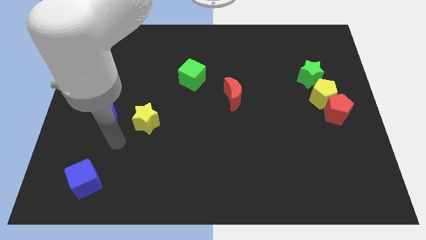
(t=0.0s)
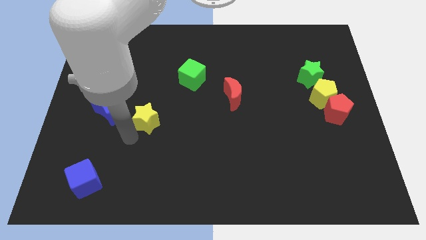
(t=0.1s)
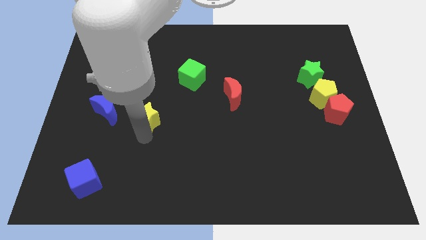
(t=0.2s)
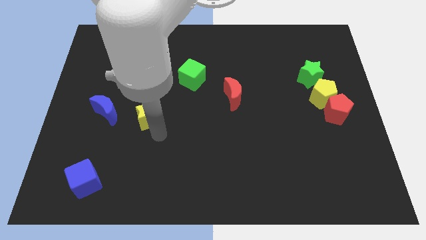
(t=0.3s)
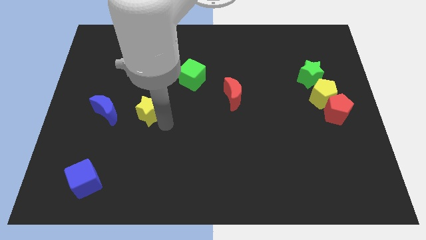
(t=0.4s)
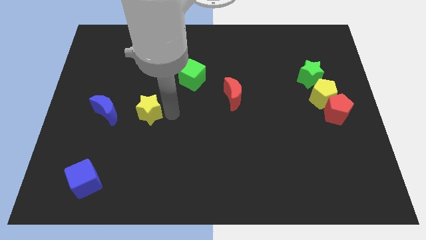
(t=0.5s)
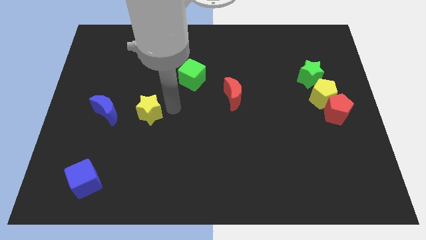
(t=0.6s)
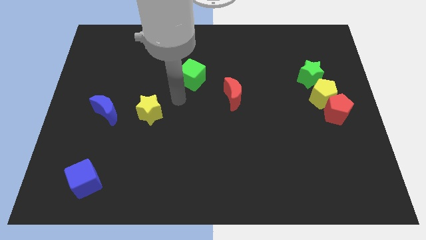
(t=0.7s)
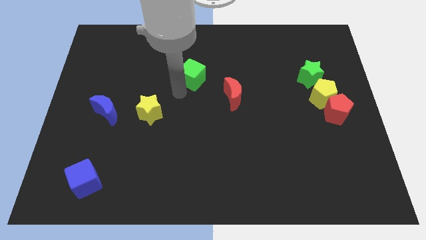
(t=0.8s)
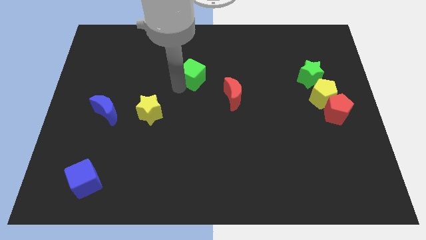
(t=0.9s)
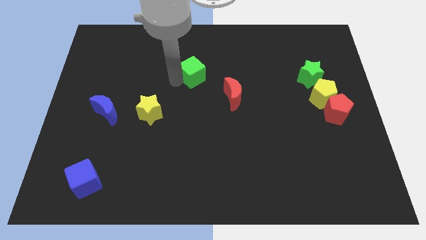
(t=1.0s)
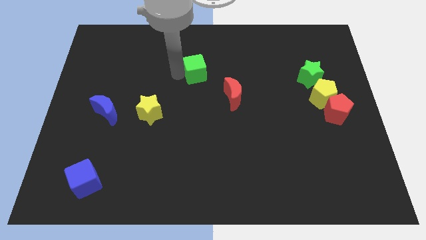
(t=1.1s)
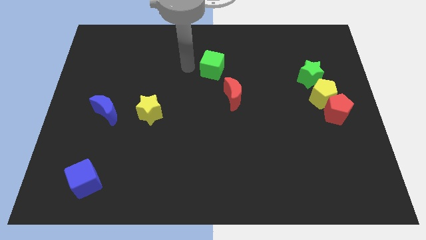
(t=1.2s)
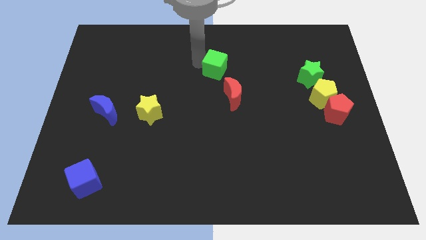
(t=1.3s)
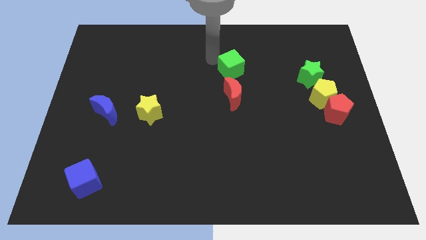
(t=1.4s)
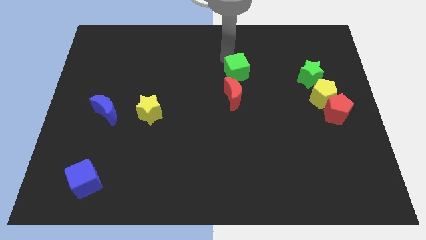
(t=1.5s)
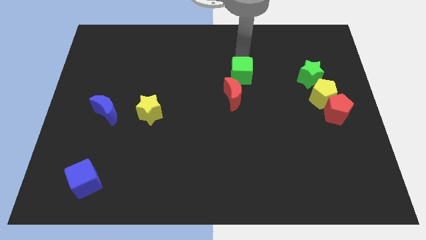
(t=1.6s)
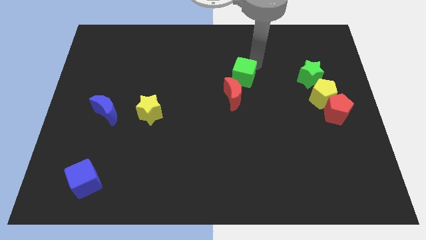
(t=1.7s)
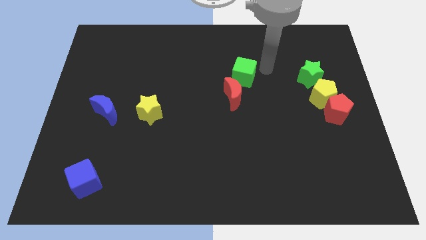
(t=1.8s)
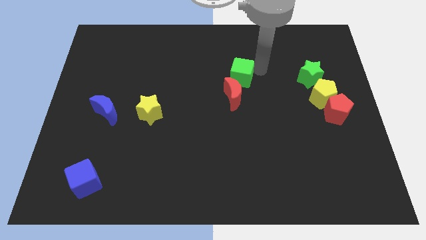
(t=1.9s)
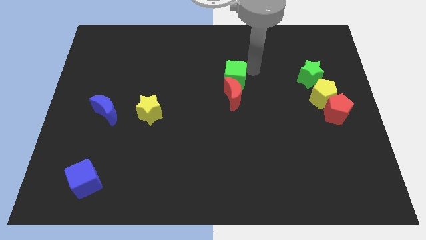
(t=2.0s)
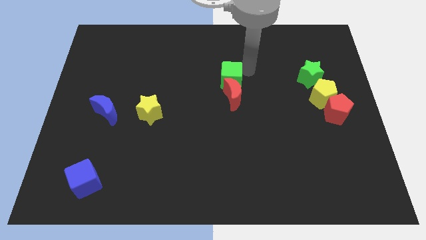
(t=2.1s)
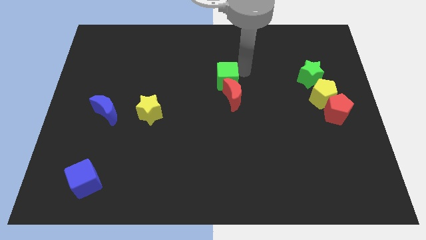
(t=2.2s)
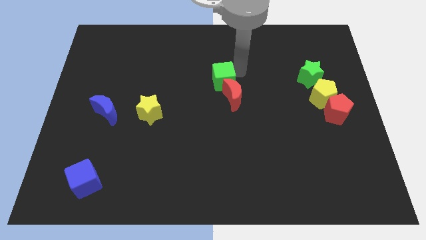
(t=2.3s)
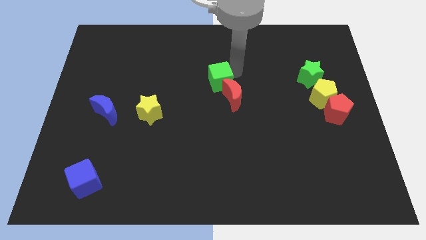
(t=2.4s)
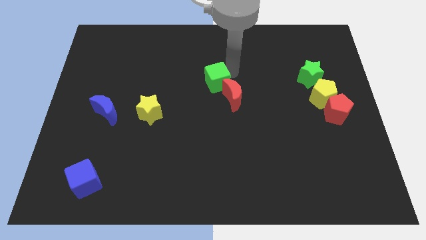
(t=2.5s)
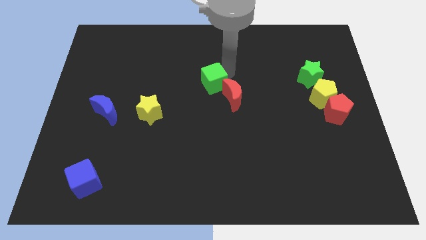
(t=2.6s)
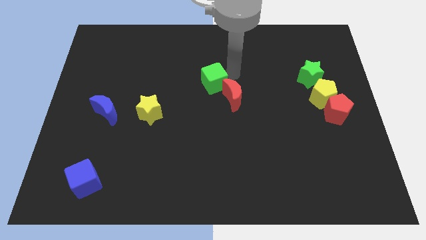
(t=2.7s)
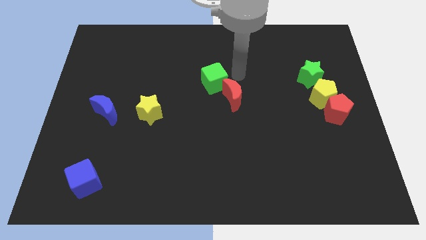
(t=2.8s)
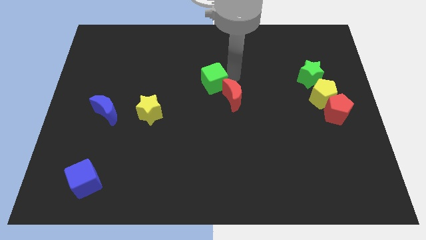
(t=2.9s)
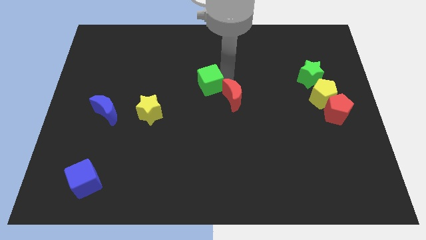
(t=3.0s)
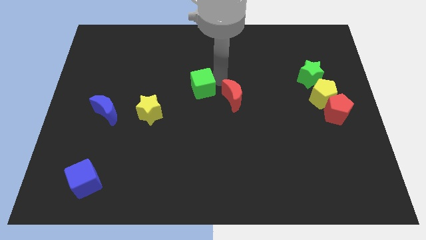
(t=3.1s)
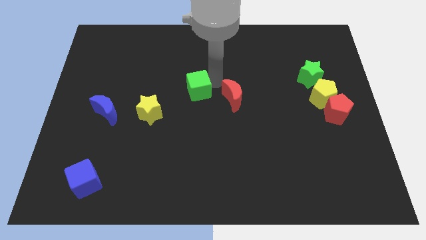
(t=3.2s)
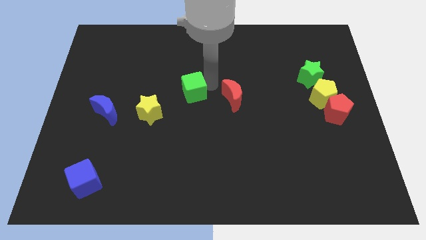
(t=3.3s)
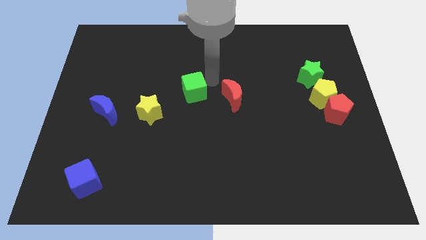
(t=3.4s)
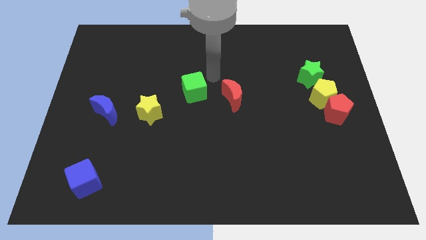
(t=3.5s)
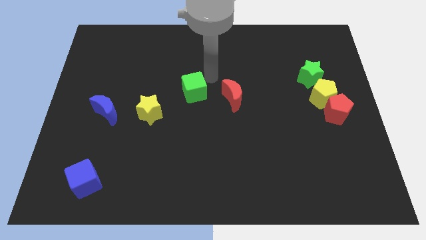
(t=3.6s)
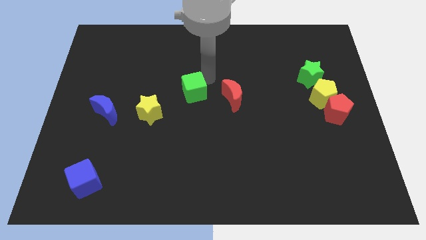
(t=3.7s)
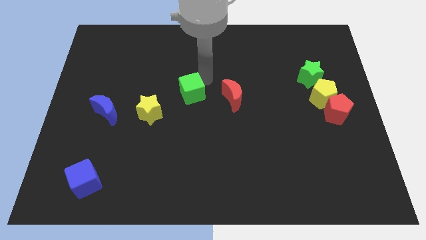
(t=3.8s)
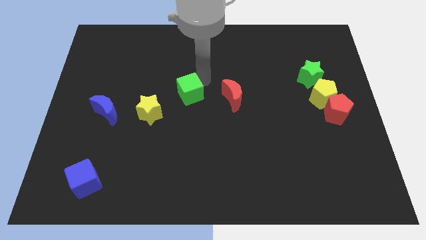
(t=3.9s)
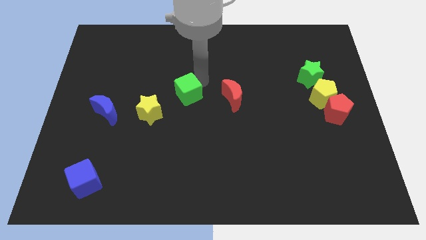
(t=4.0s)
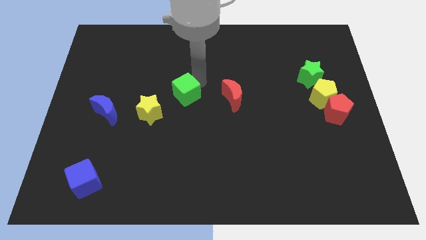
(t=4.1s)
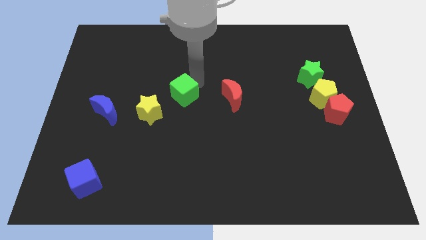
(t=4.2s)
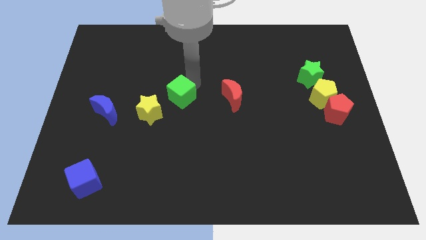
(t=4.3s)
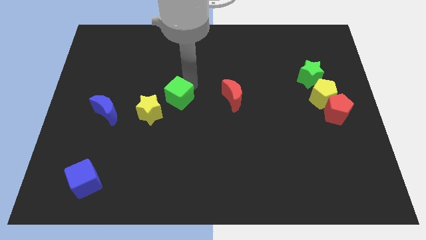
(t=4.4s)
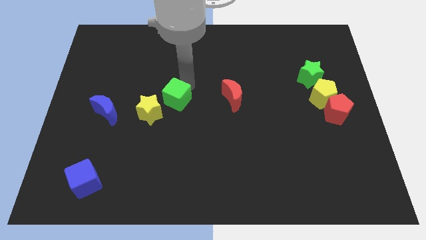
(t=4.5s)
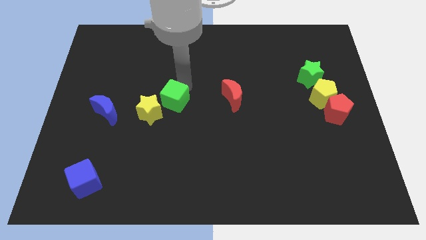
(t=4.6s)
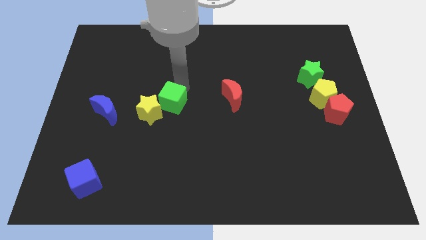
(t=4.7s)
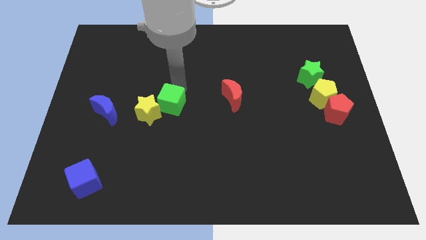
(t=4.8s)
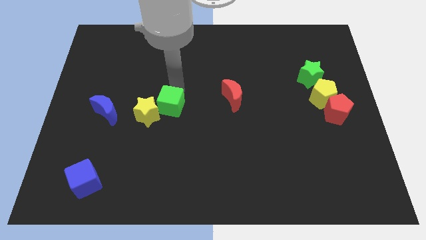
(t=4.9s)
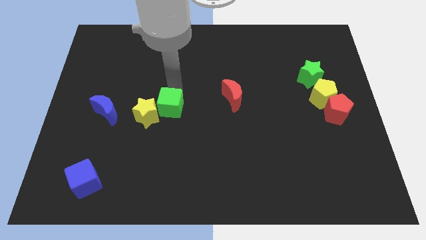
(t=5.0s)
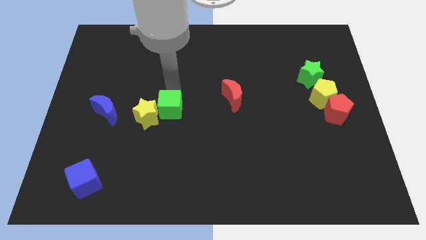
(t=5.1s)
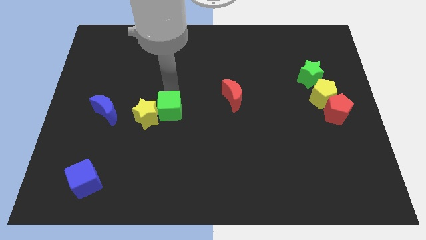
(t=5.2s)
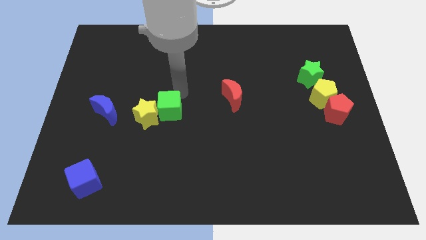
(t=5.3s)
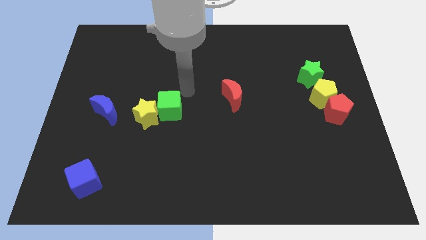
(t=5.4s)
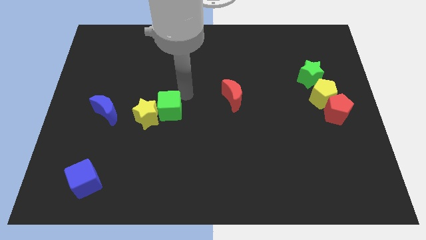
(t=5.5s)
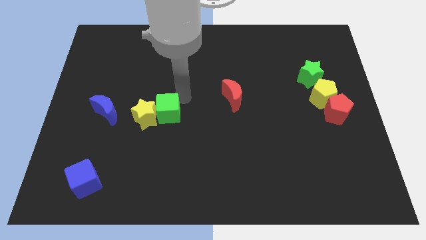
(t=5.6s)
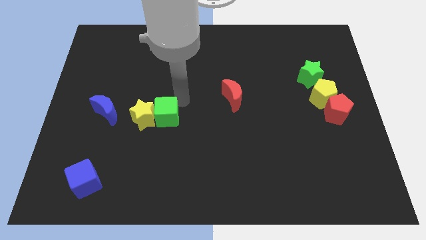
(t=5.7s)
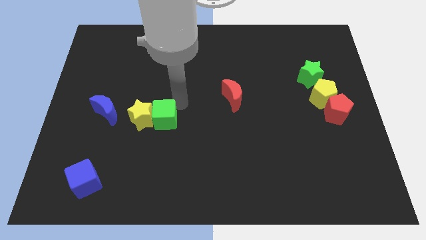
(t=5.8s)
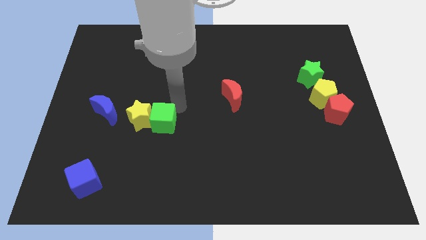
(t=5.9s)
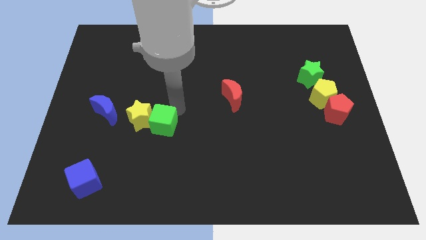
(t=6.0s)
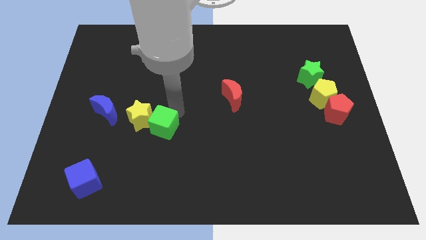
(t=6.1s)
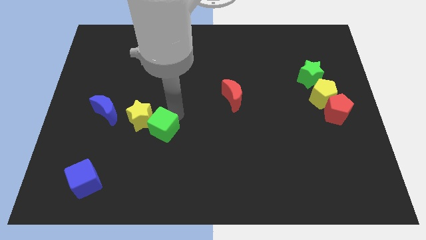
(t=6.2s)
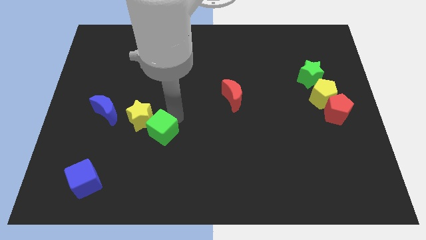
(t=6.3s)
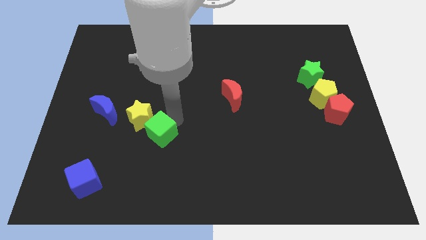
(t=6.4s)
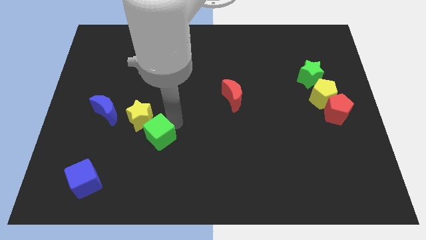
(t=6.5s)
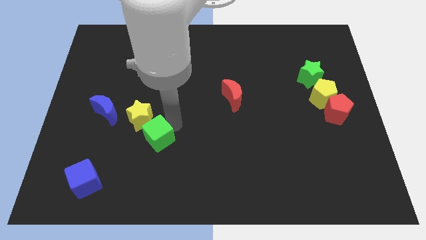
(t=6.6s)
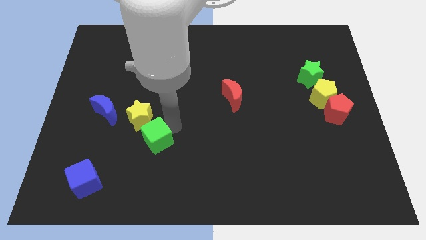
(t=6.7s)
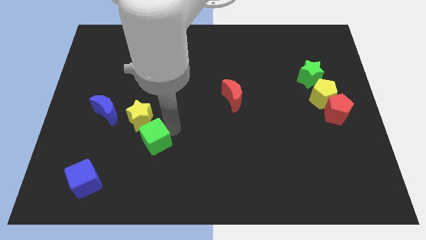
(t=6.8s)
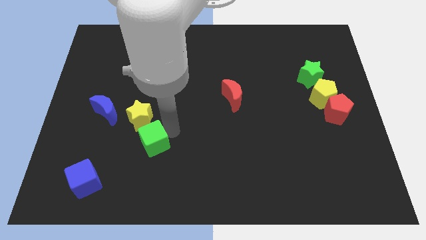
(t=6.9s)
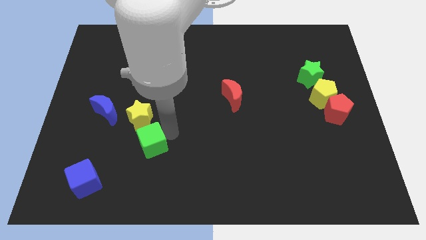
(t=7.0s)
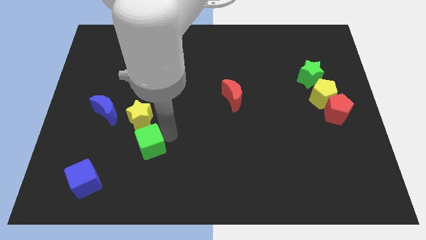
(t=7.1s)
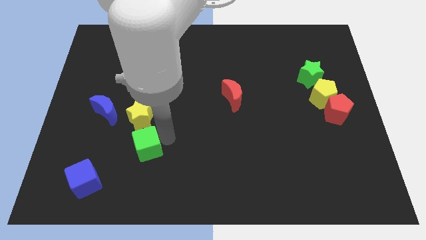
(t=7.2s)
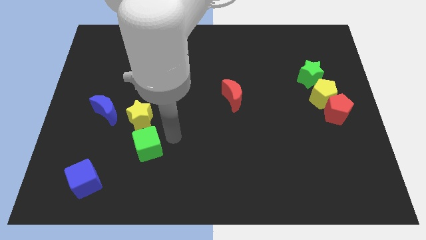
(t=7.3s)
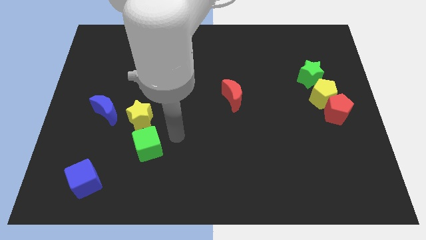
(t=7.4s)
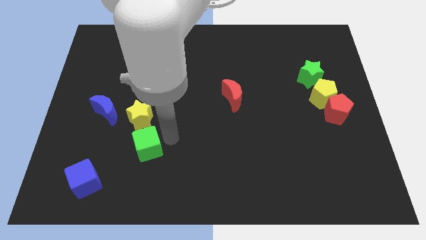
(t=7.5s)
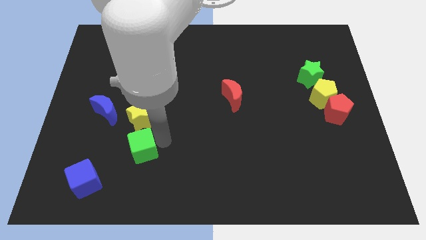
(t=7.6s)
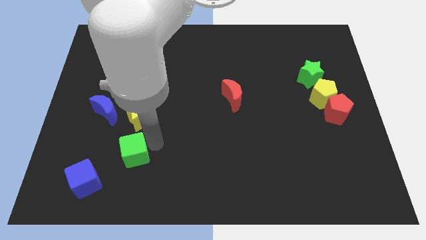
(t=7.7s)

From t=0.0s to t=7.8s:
push the green cube to the top right side of the blue cube
